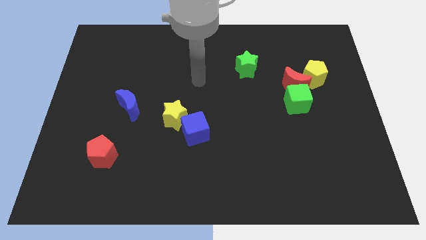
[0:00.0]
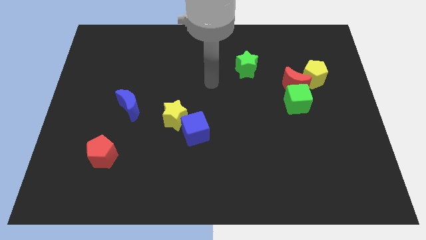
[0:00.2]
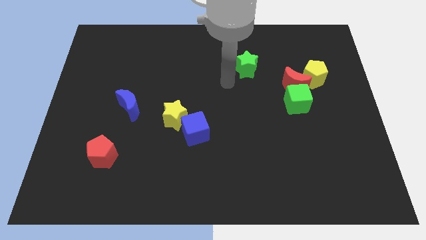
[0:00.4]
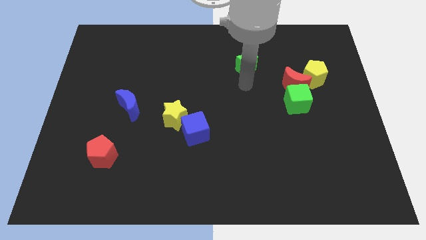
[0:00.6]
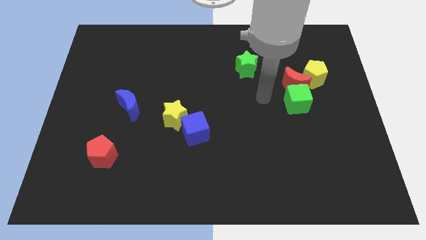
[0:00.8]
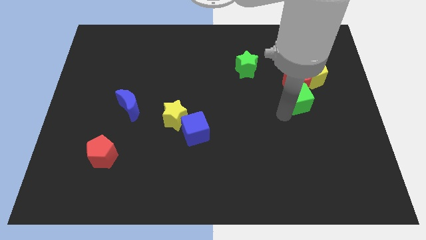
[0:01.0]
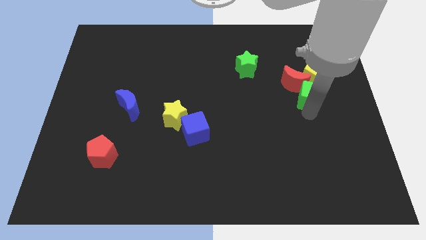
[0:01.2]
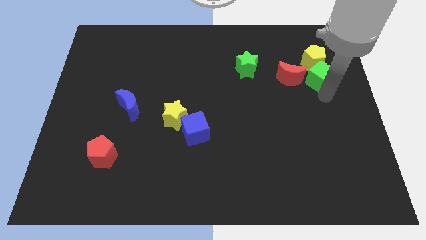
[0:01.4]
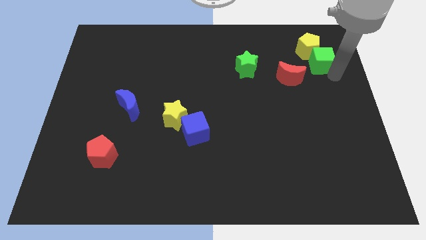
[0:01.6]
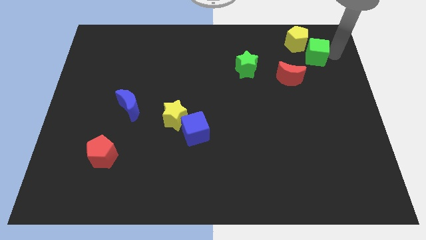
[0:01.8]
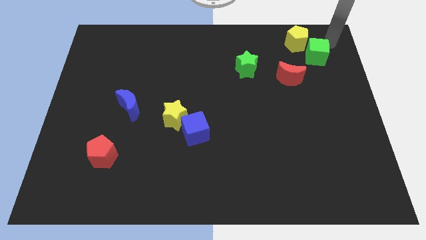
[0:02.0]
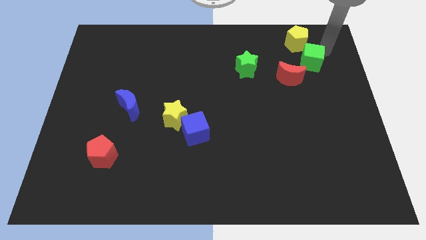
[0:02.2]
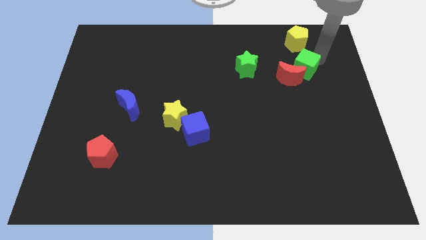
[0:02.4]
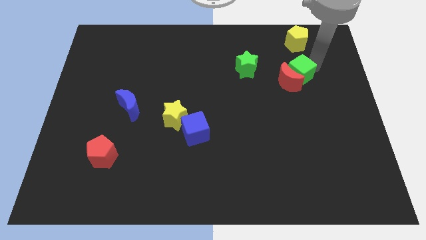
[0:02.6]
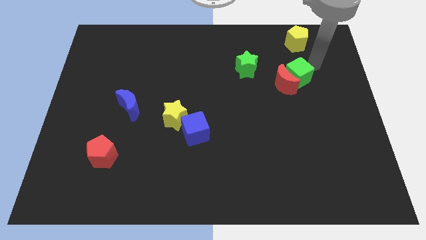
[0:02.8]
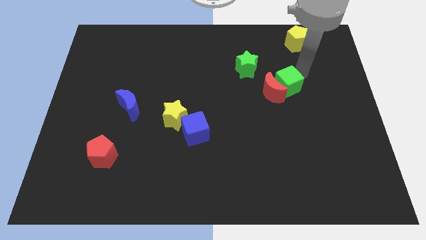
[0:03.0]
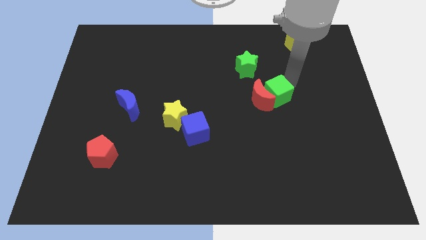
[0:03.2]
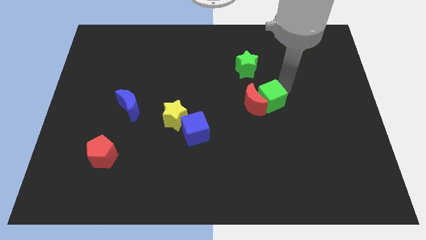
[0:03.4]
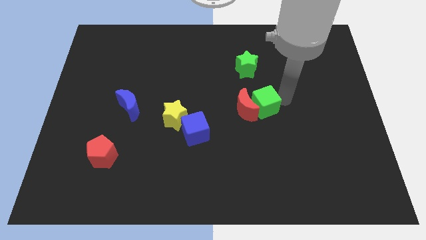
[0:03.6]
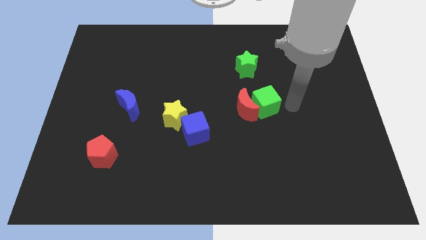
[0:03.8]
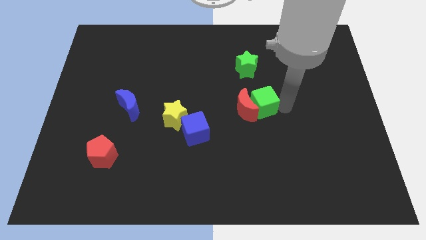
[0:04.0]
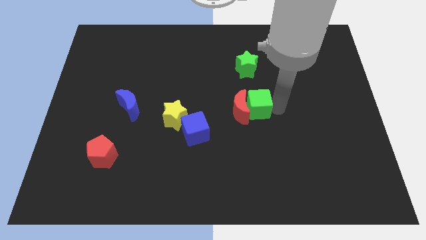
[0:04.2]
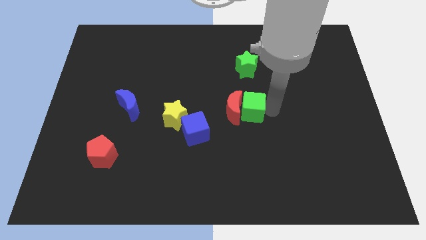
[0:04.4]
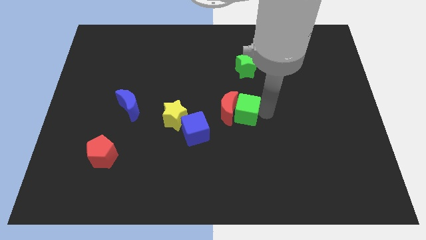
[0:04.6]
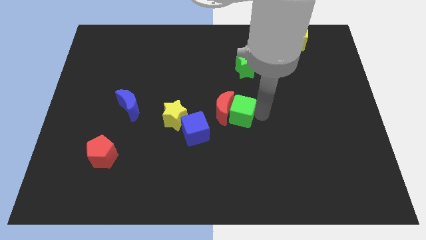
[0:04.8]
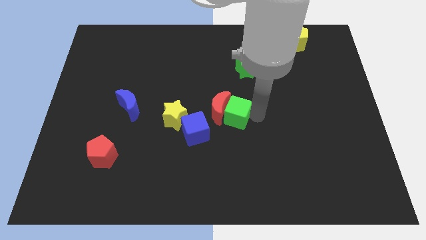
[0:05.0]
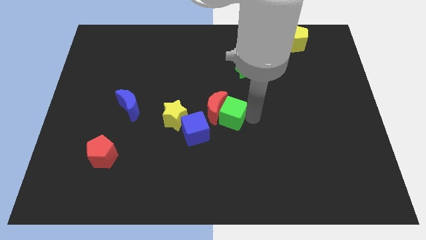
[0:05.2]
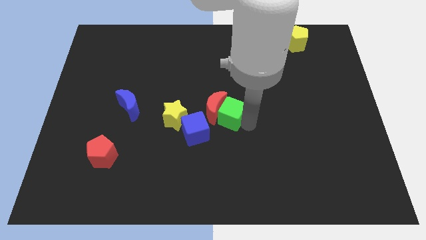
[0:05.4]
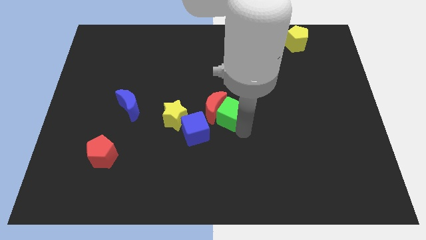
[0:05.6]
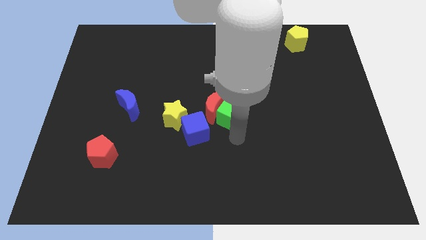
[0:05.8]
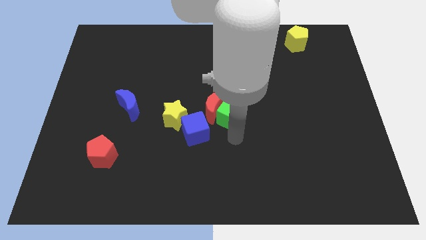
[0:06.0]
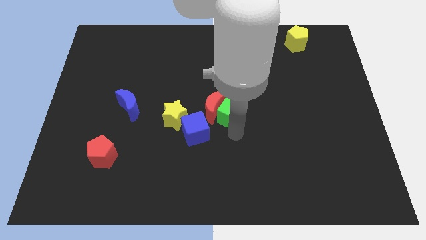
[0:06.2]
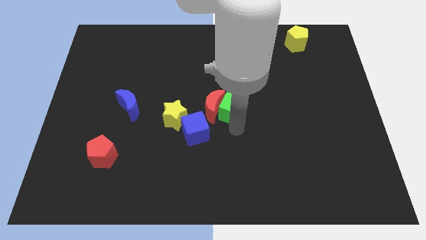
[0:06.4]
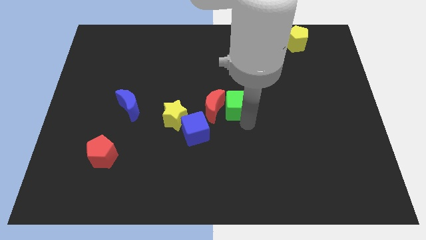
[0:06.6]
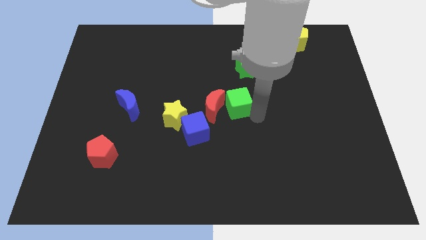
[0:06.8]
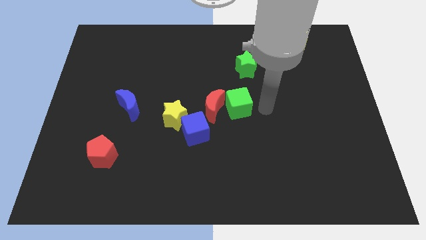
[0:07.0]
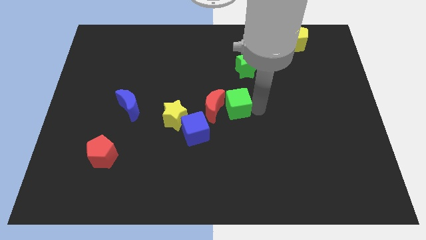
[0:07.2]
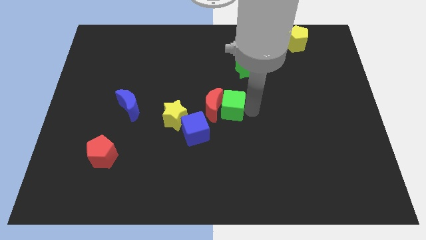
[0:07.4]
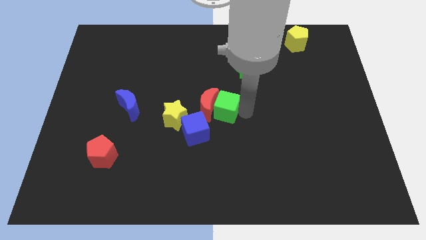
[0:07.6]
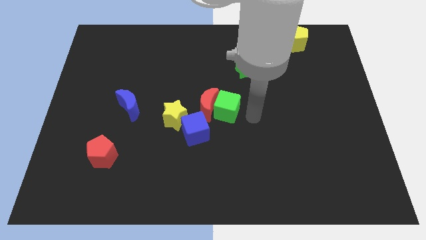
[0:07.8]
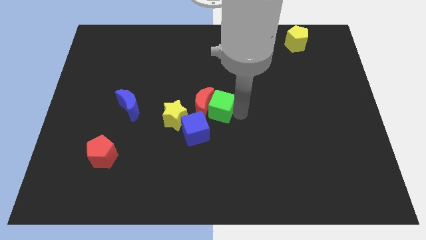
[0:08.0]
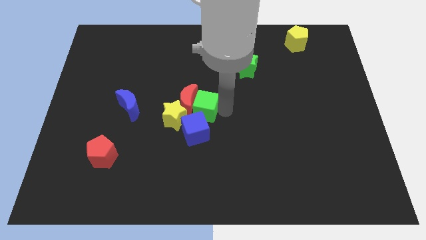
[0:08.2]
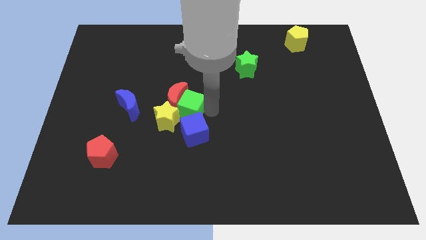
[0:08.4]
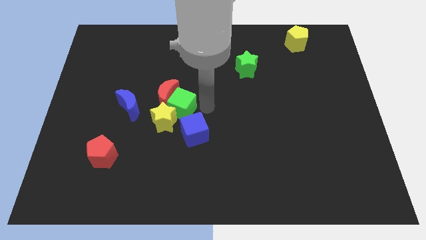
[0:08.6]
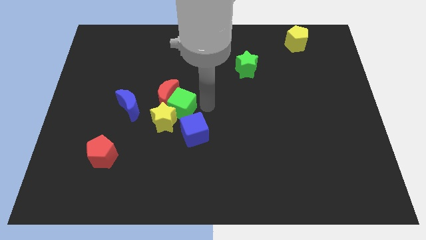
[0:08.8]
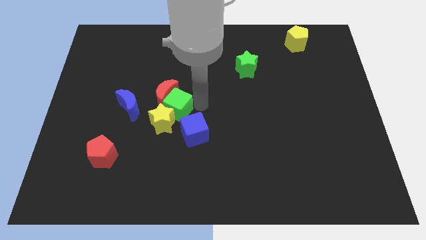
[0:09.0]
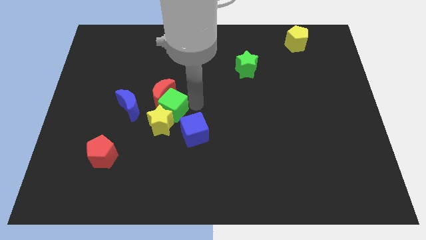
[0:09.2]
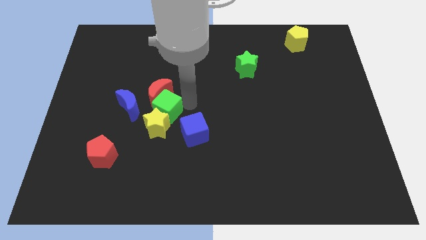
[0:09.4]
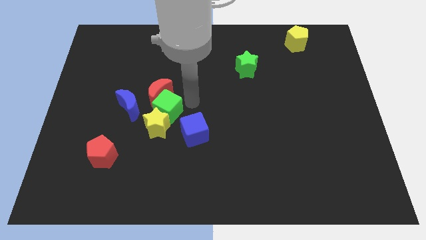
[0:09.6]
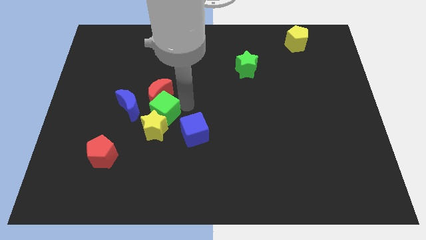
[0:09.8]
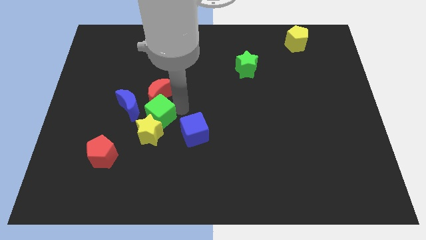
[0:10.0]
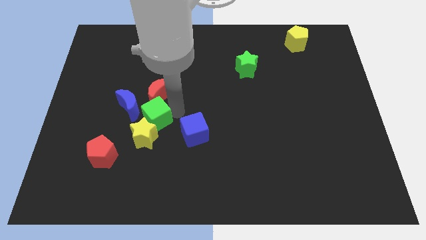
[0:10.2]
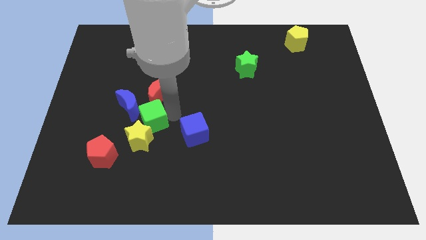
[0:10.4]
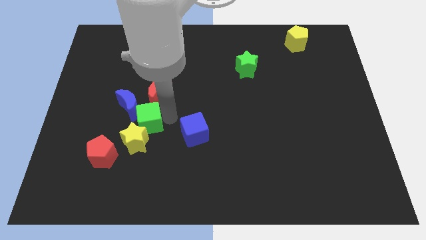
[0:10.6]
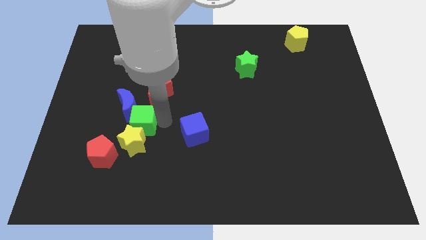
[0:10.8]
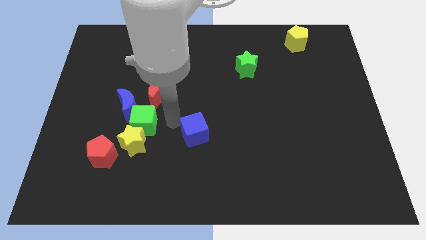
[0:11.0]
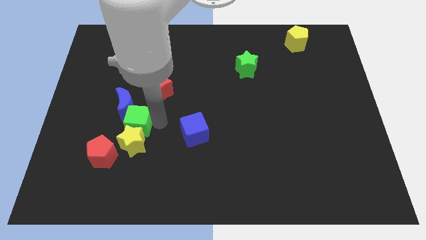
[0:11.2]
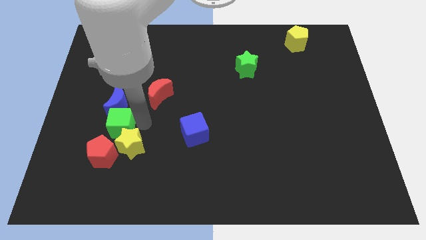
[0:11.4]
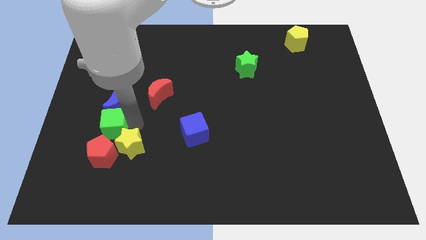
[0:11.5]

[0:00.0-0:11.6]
move the green cube to the bottom left of the blue moon

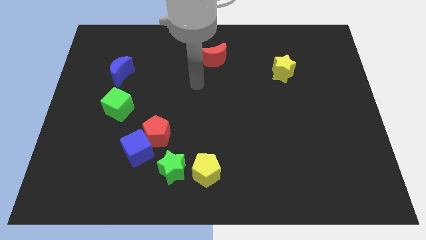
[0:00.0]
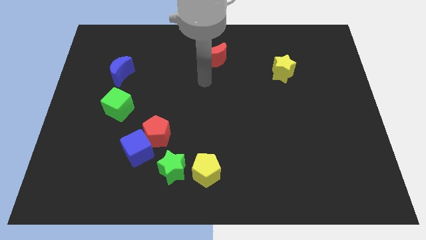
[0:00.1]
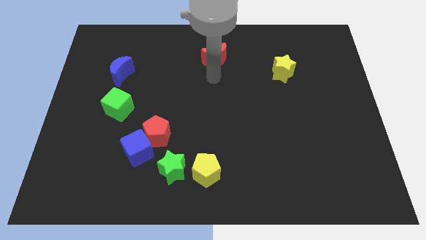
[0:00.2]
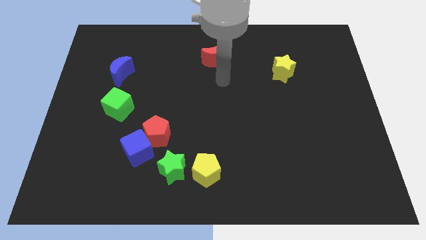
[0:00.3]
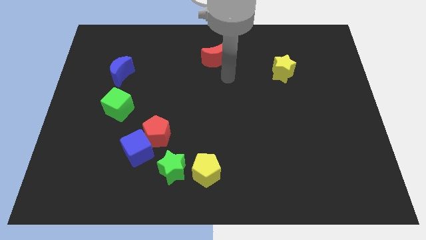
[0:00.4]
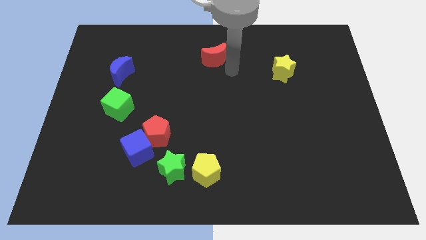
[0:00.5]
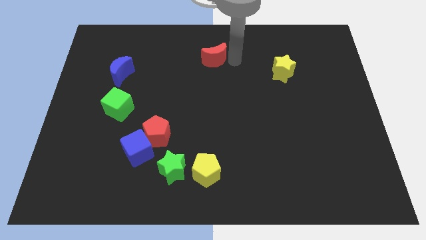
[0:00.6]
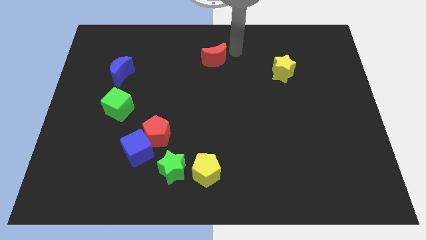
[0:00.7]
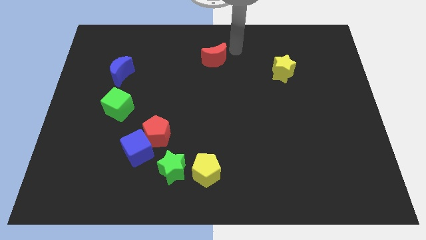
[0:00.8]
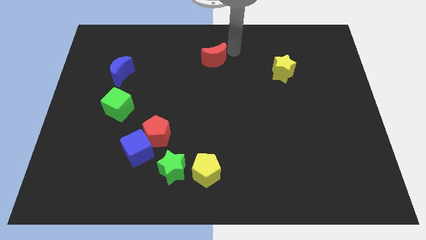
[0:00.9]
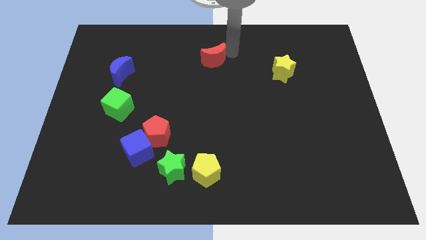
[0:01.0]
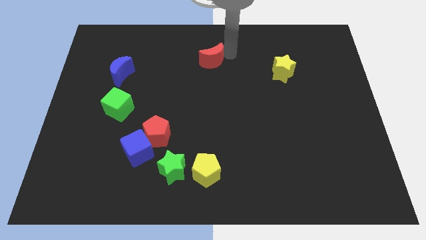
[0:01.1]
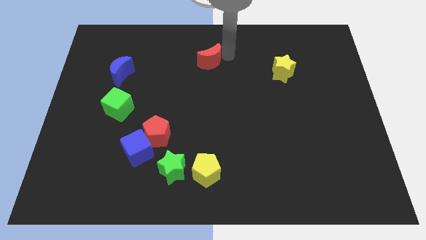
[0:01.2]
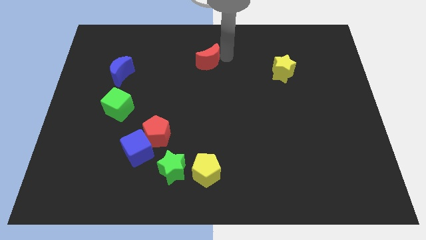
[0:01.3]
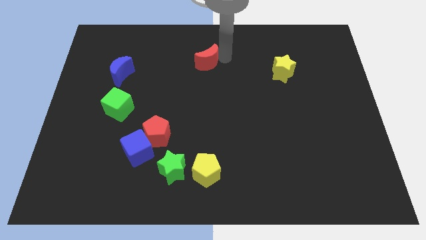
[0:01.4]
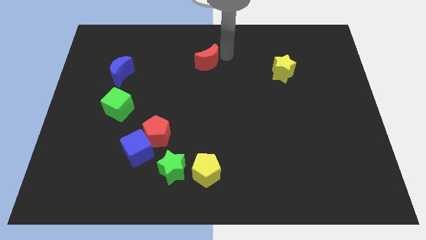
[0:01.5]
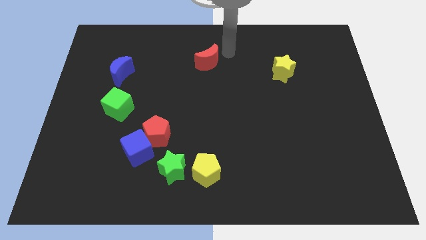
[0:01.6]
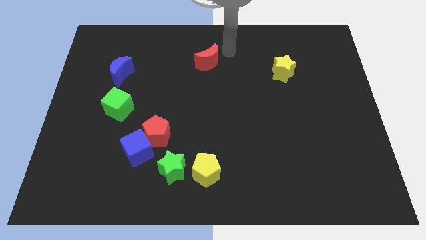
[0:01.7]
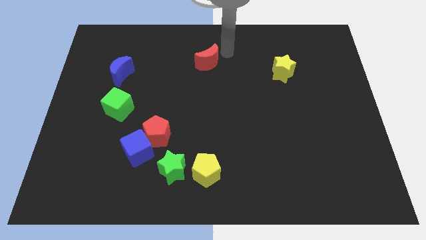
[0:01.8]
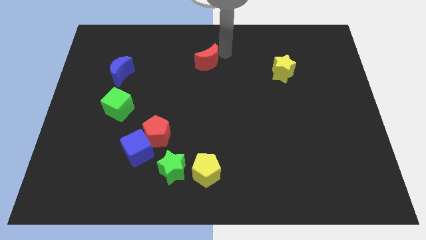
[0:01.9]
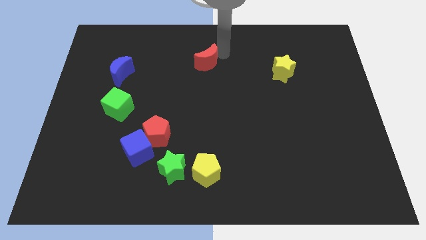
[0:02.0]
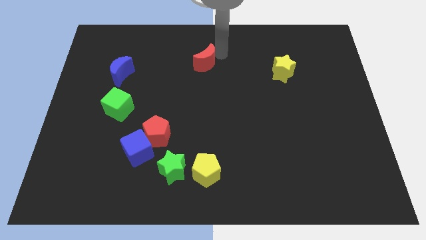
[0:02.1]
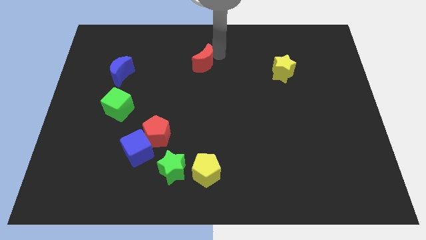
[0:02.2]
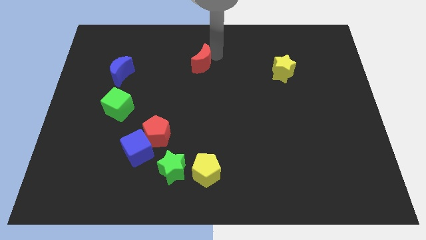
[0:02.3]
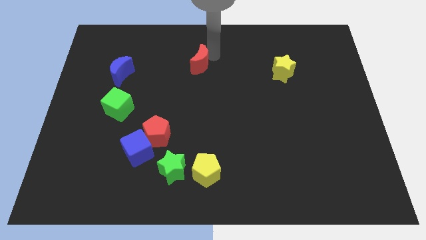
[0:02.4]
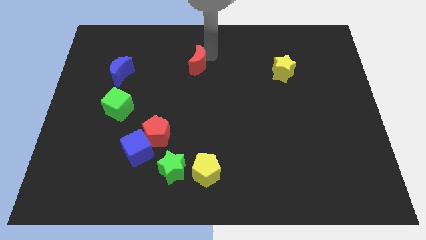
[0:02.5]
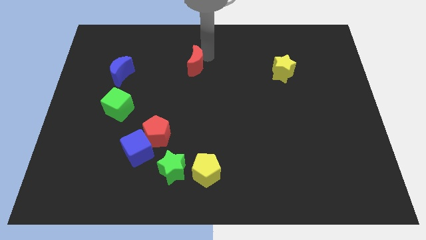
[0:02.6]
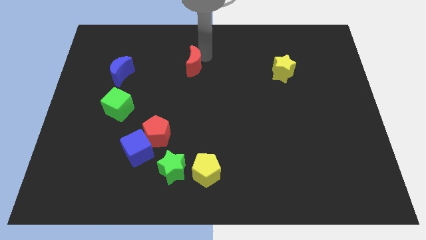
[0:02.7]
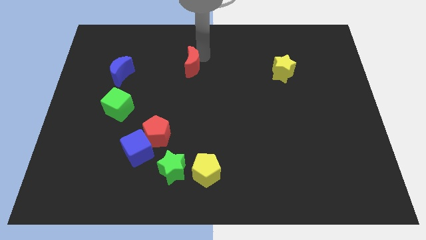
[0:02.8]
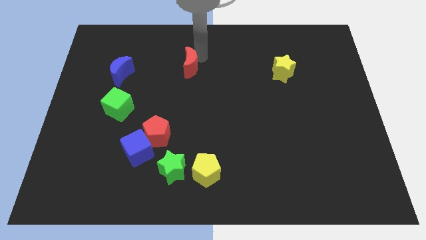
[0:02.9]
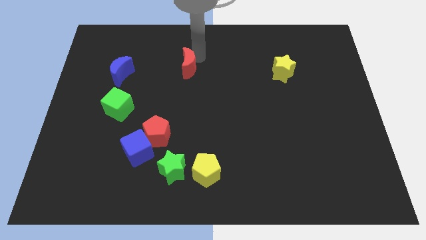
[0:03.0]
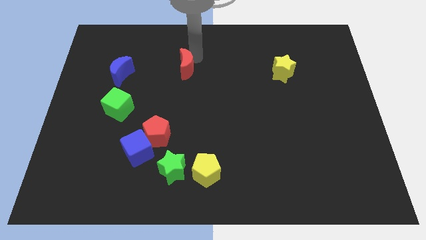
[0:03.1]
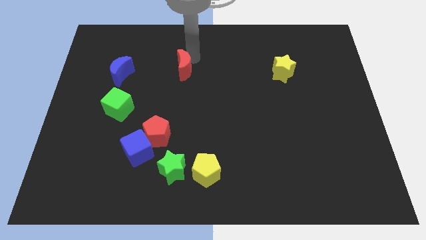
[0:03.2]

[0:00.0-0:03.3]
move the red moon to the right of the blue moon
